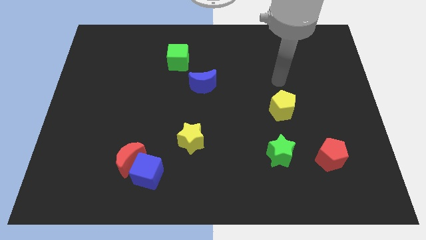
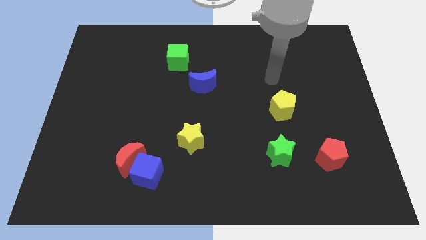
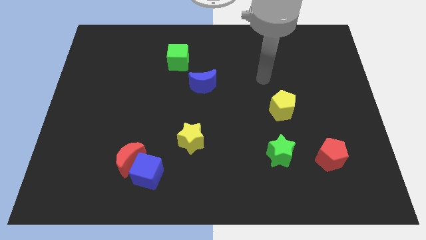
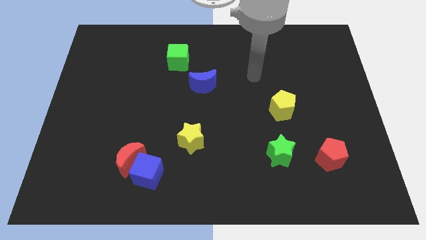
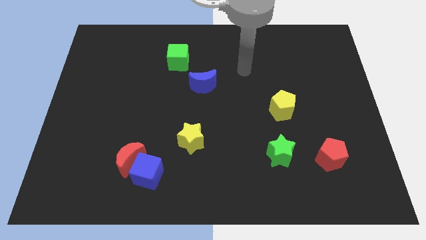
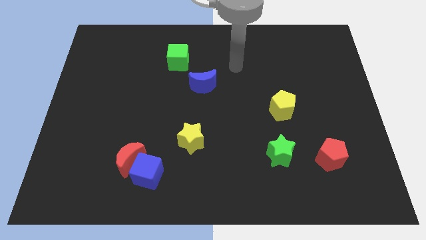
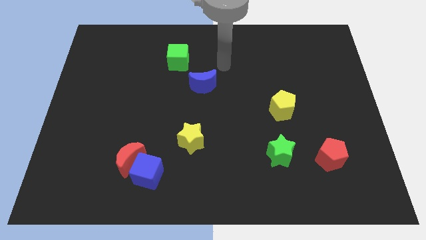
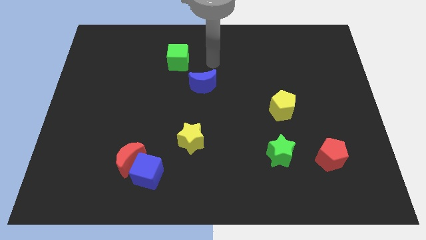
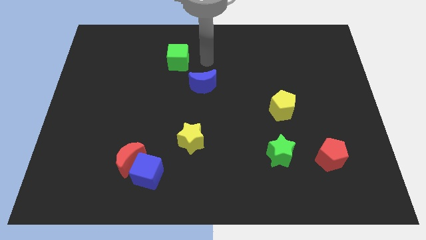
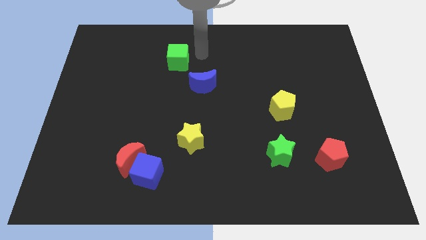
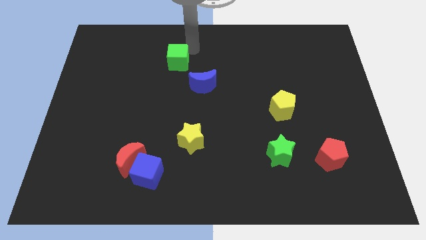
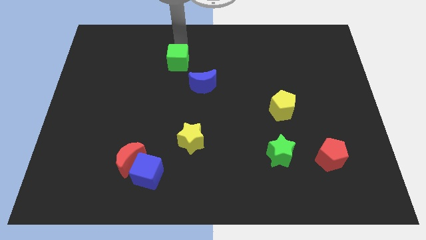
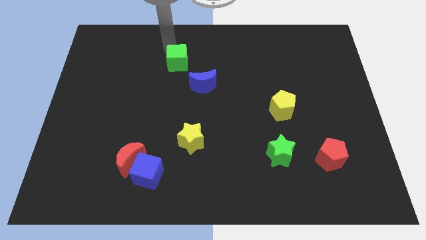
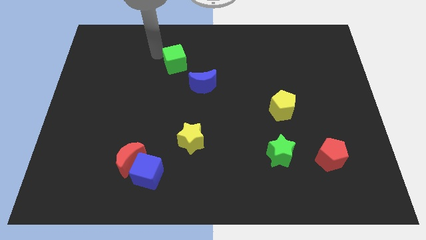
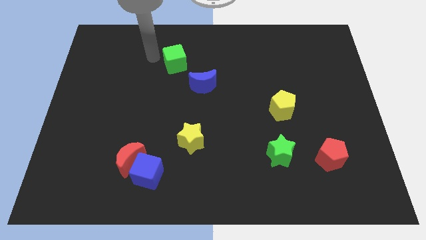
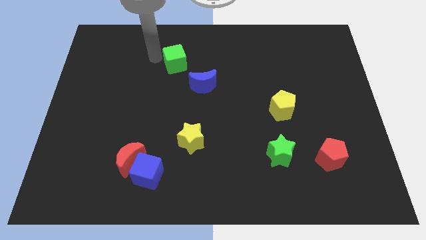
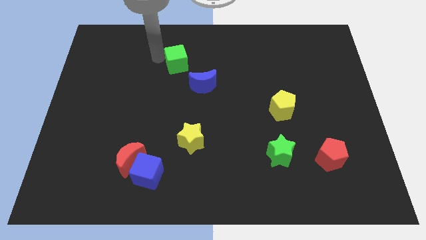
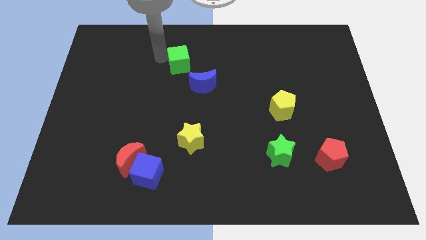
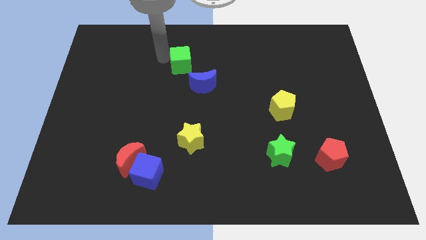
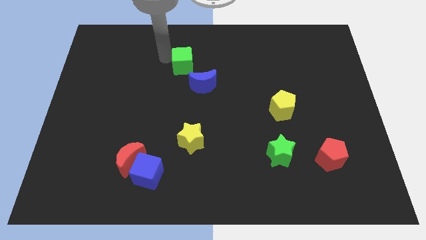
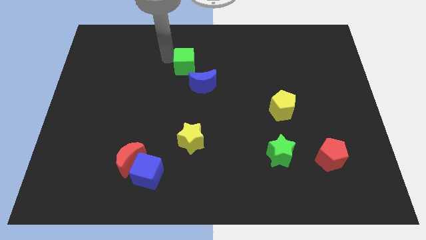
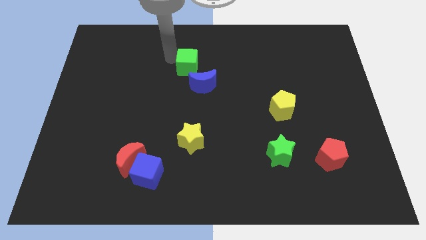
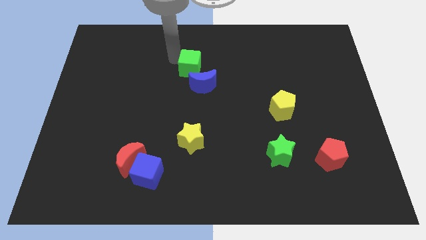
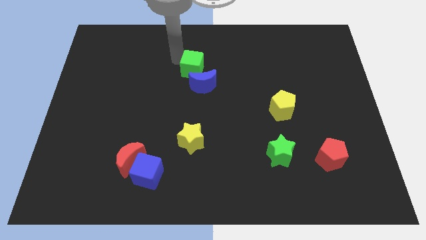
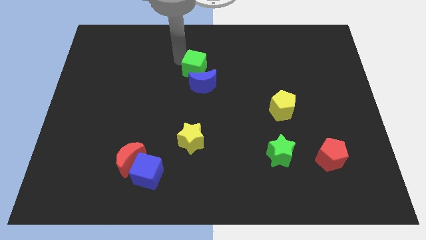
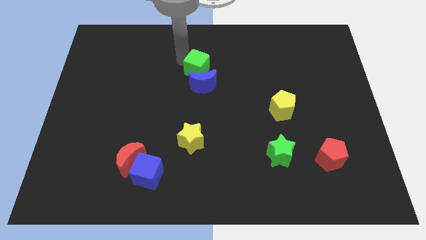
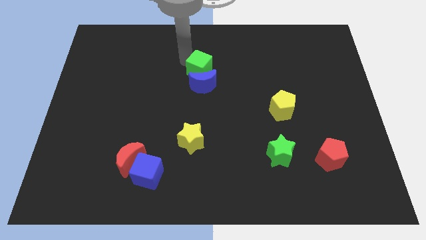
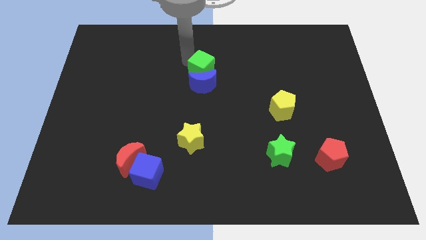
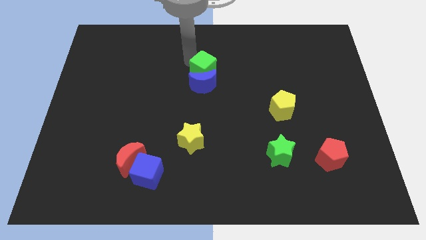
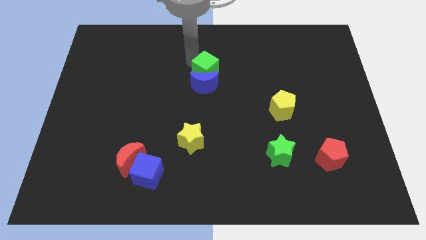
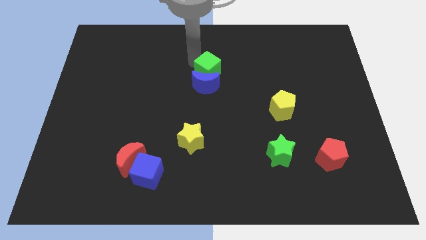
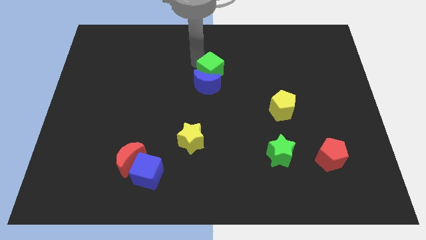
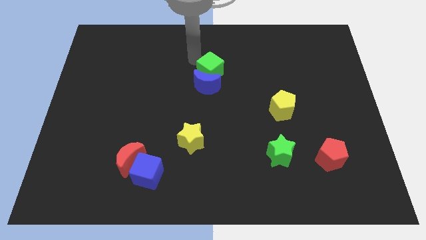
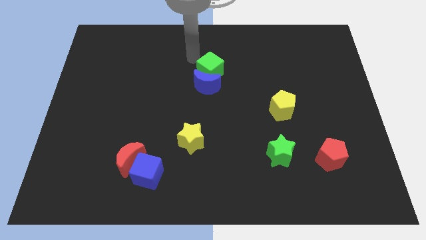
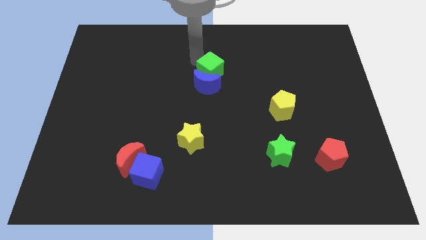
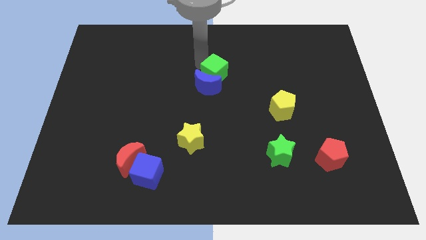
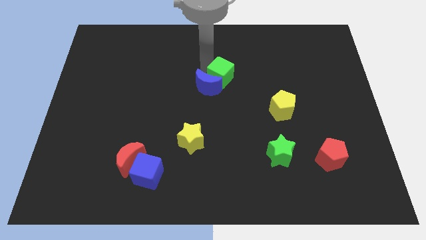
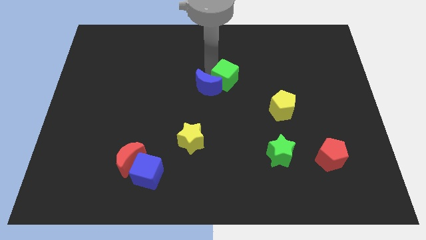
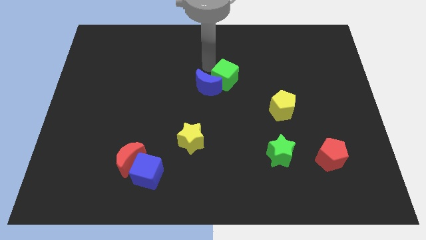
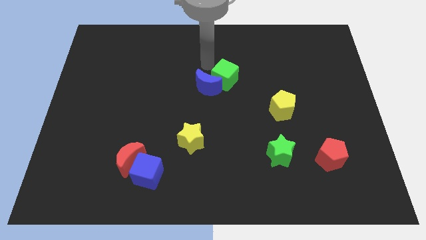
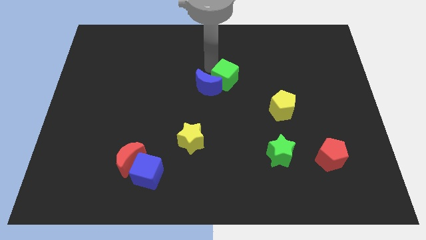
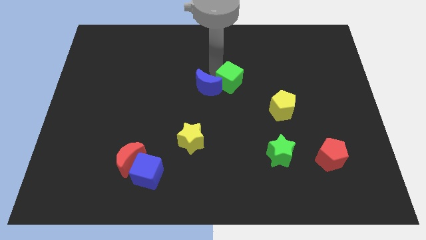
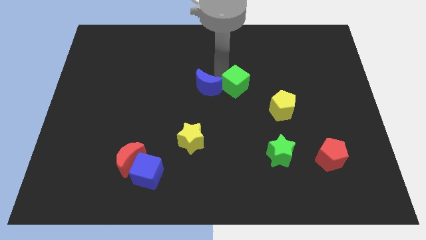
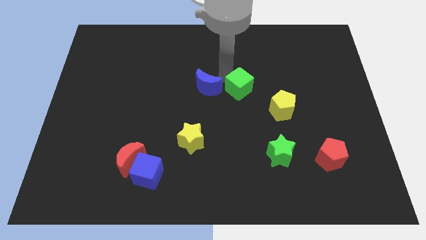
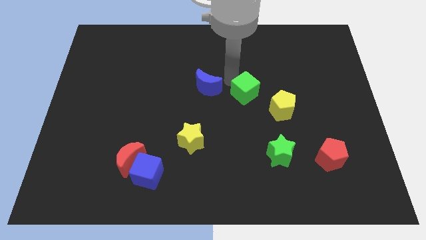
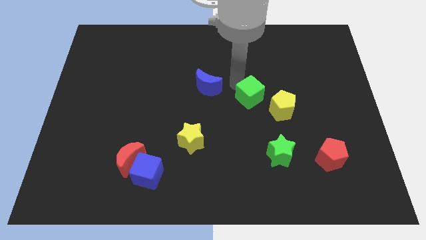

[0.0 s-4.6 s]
slide the green cube downwards and right diagonally

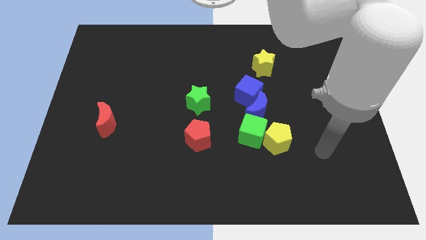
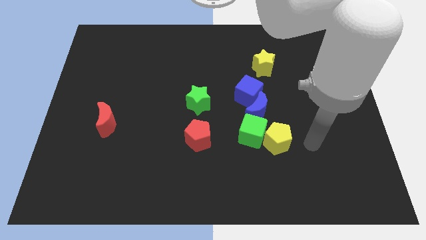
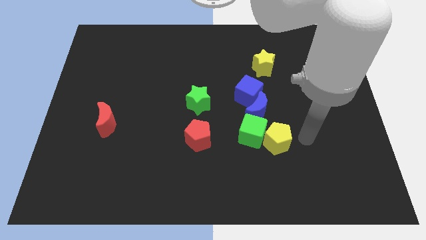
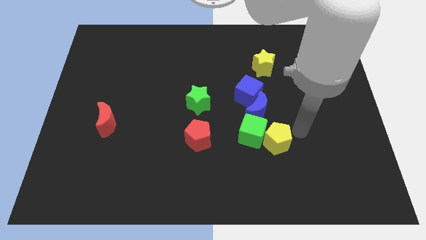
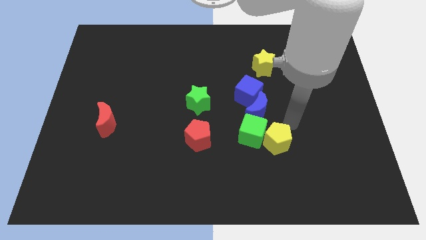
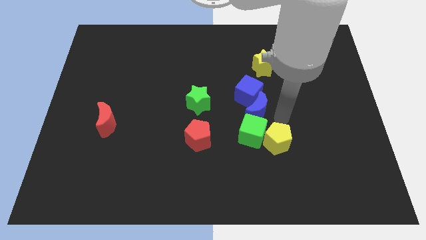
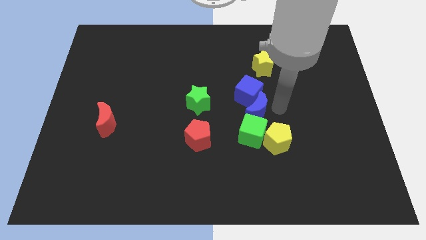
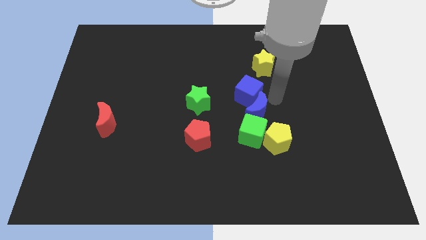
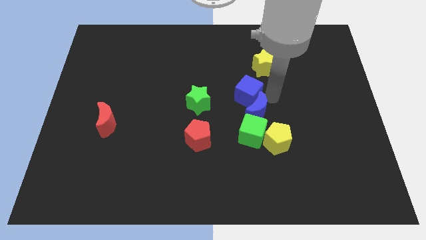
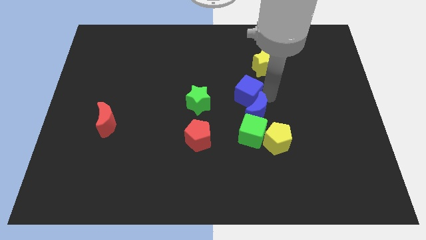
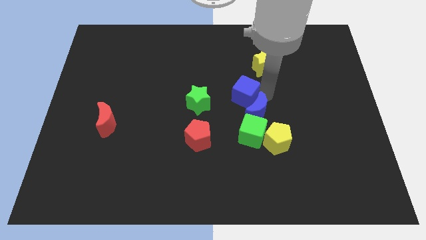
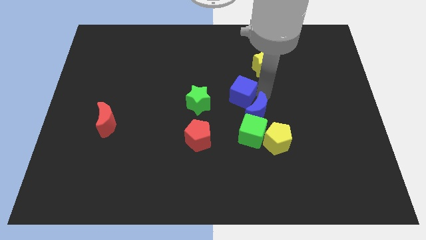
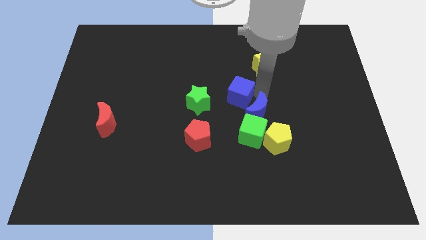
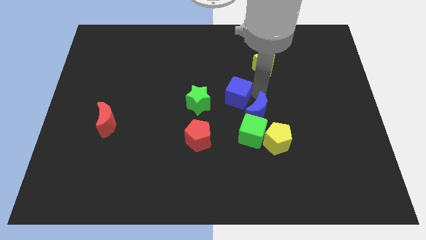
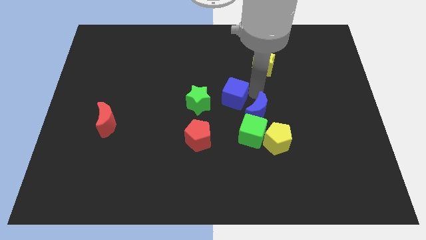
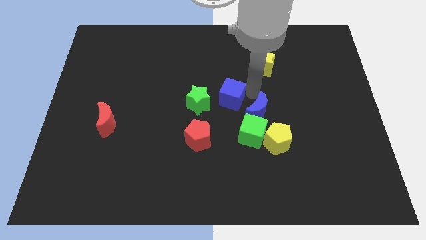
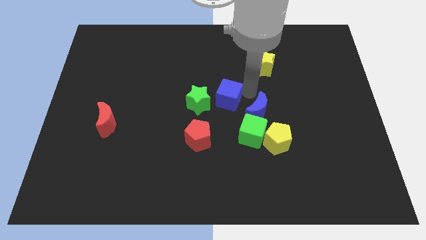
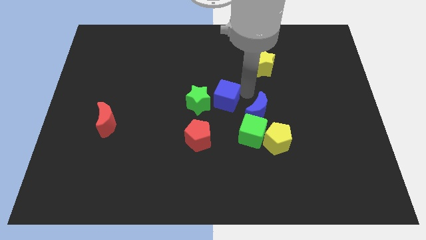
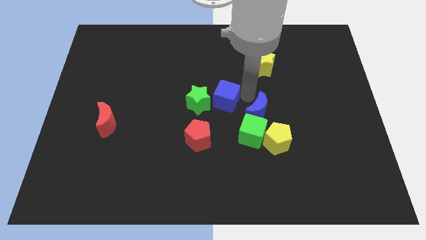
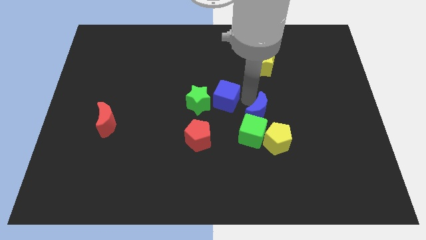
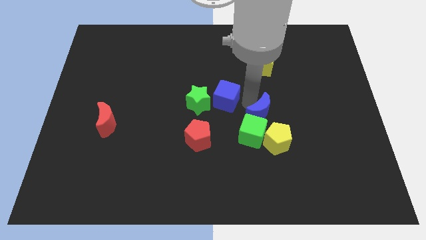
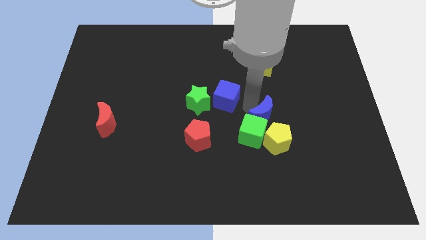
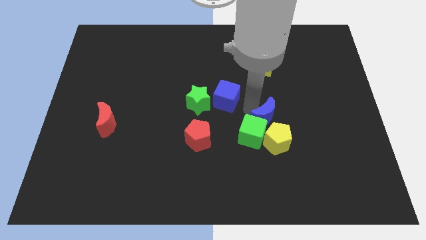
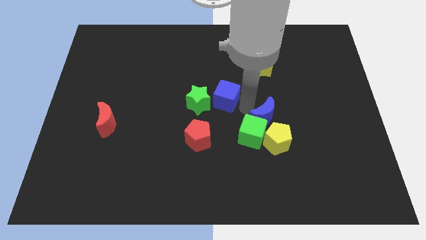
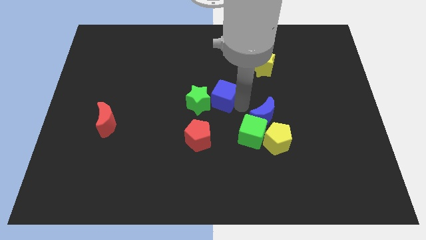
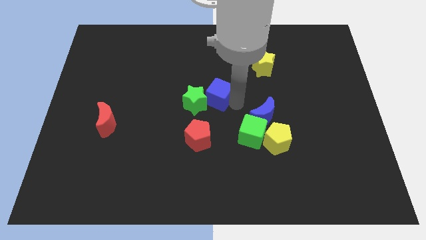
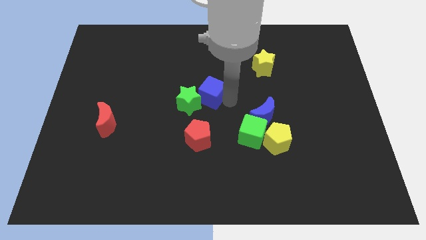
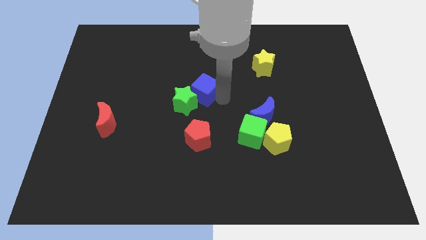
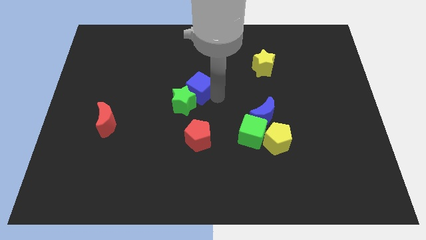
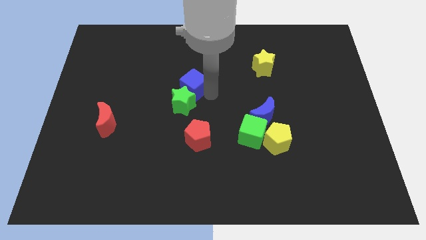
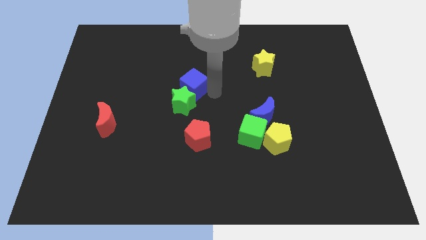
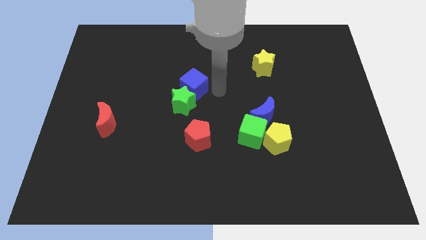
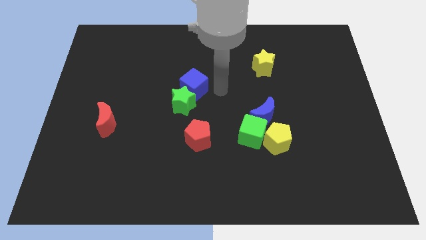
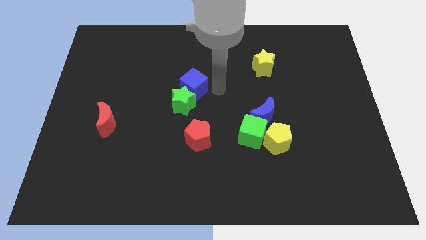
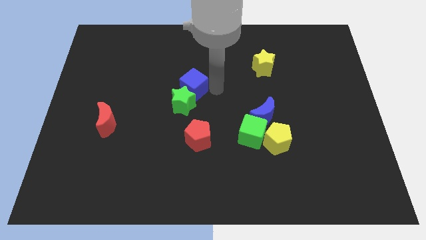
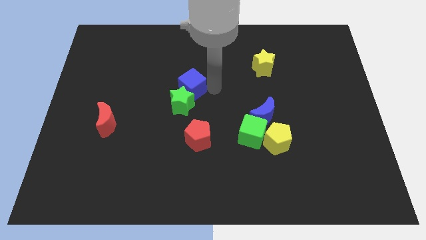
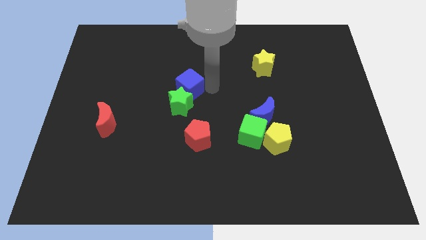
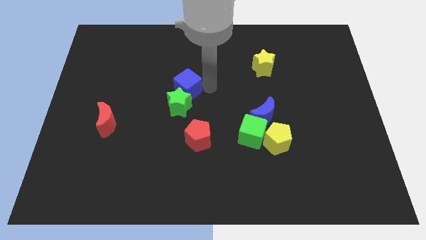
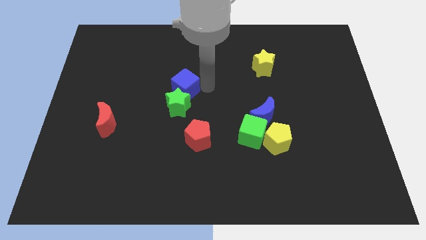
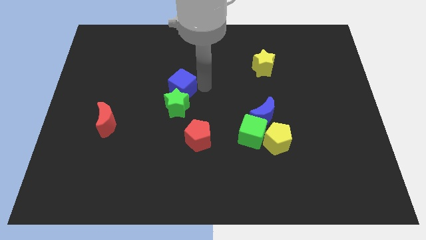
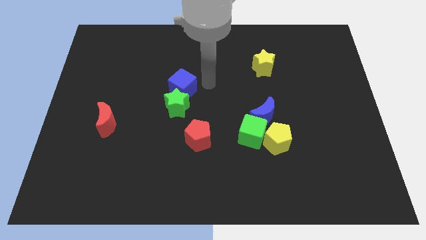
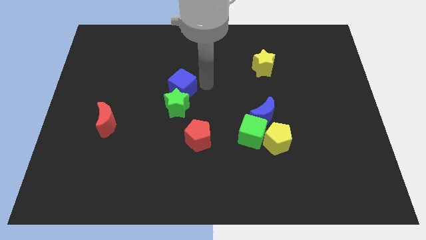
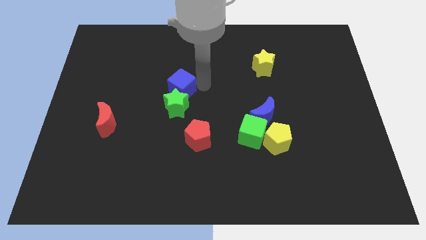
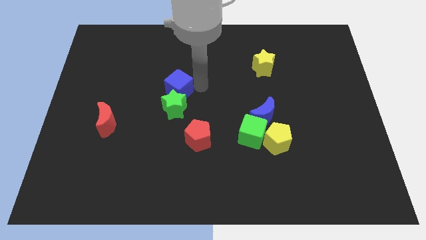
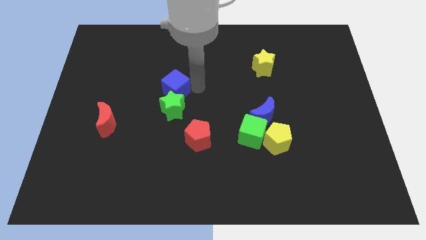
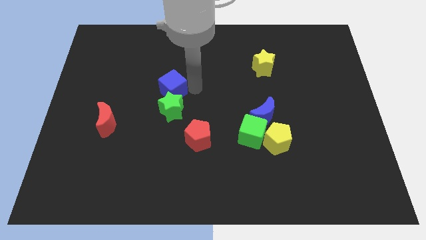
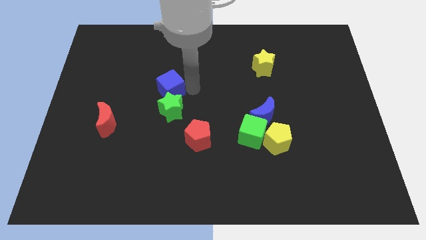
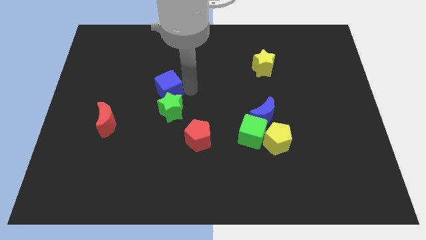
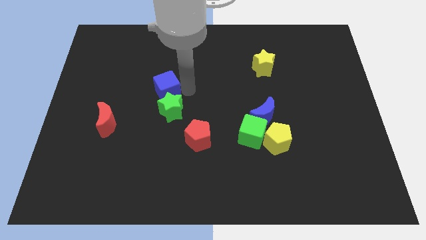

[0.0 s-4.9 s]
move the blue cube left
